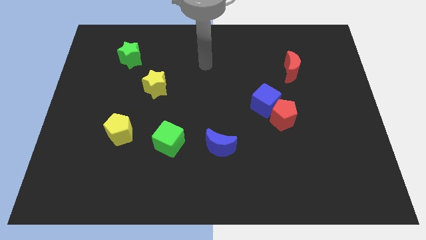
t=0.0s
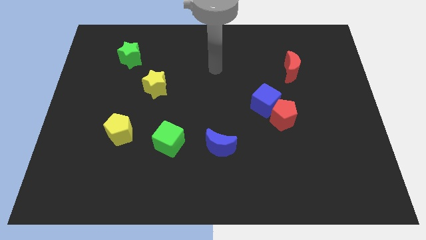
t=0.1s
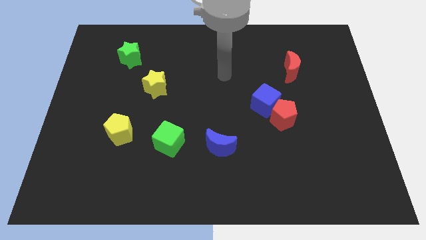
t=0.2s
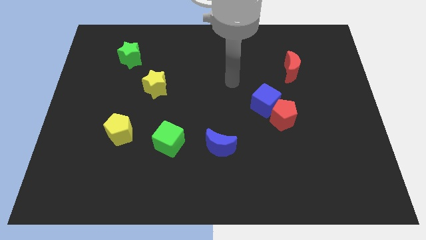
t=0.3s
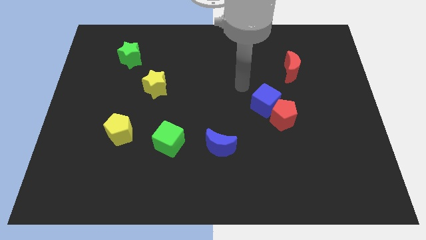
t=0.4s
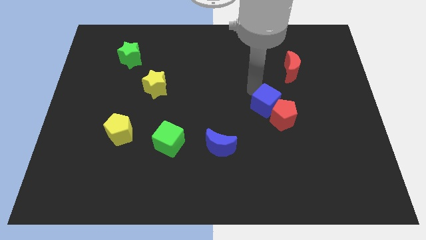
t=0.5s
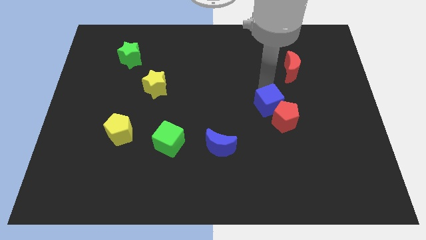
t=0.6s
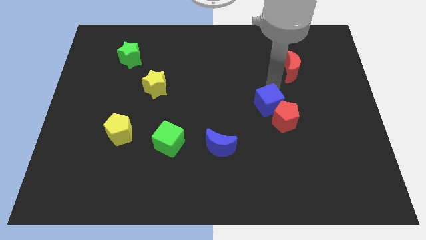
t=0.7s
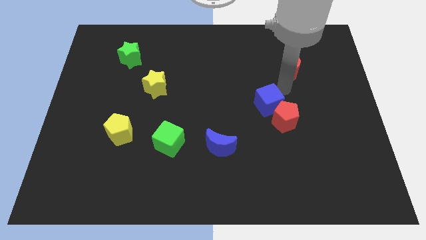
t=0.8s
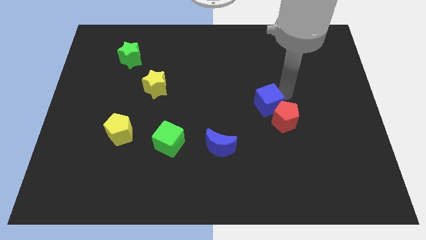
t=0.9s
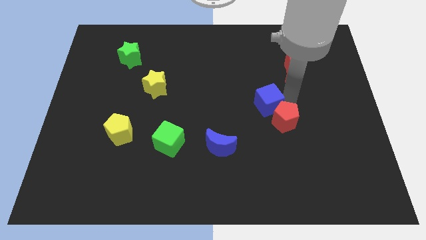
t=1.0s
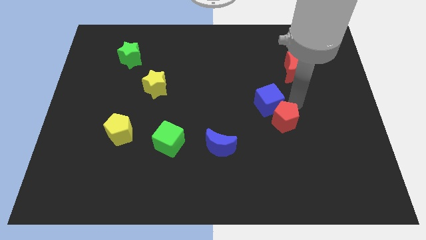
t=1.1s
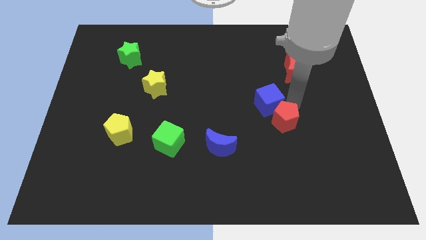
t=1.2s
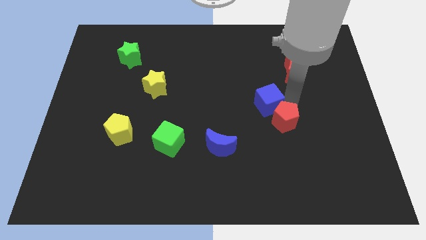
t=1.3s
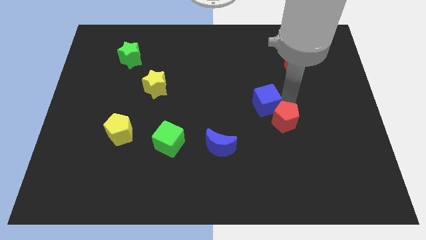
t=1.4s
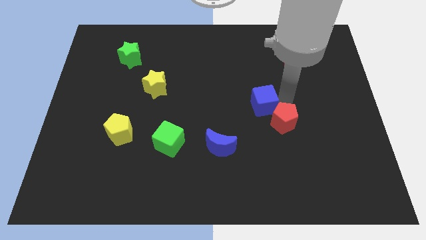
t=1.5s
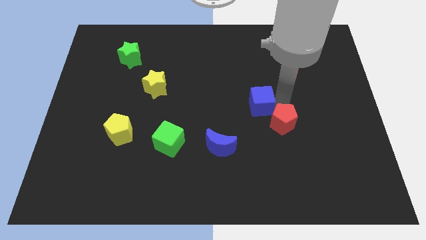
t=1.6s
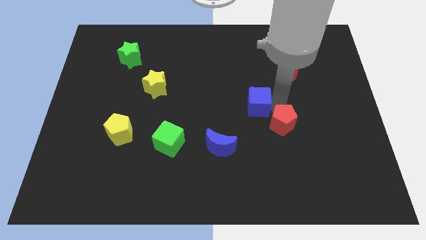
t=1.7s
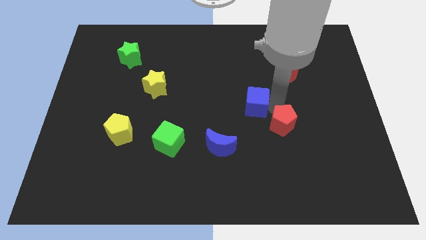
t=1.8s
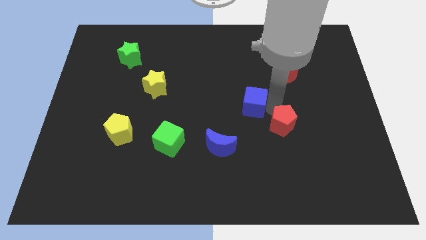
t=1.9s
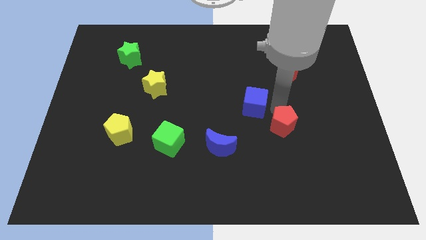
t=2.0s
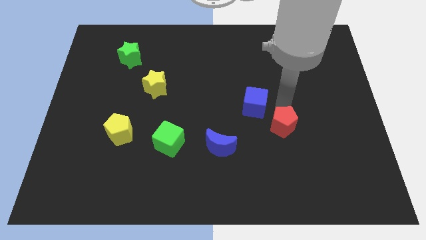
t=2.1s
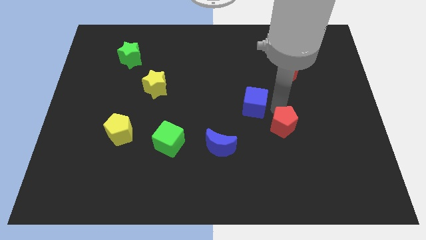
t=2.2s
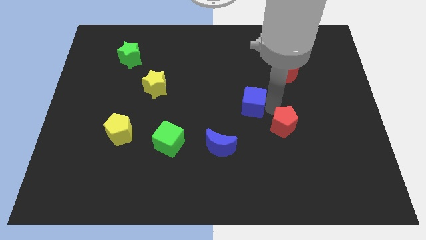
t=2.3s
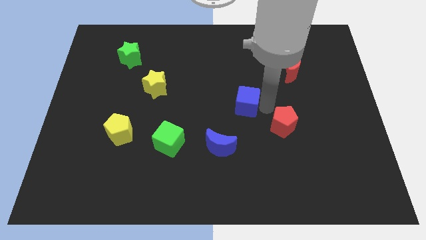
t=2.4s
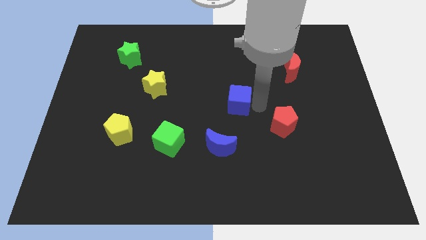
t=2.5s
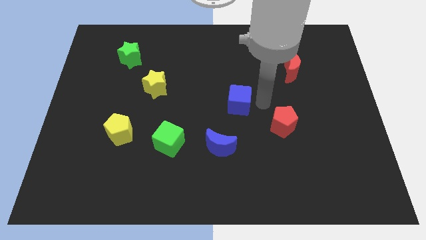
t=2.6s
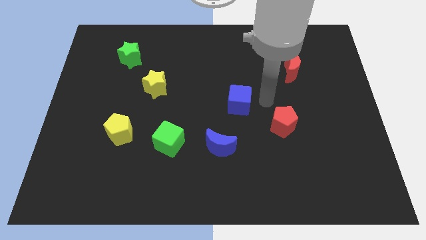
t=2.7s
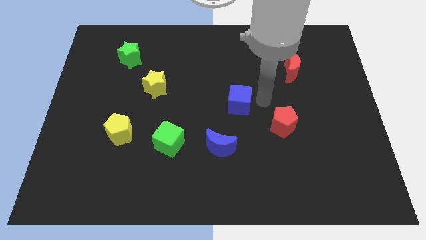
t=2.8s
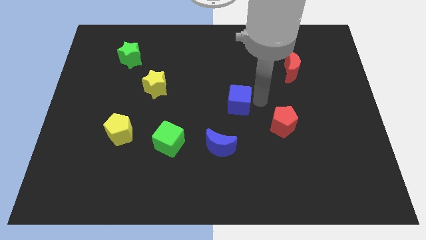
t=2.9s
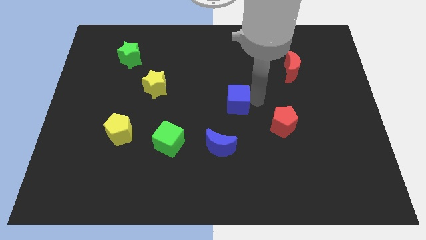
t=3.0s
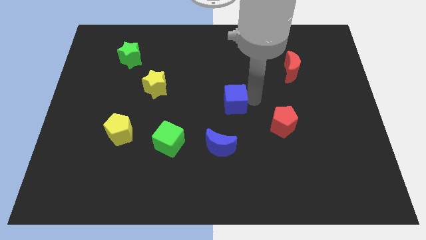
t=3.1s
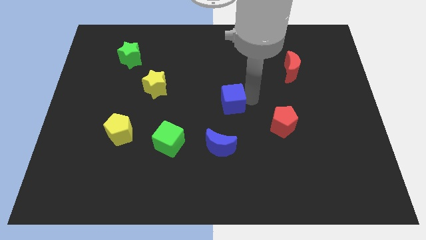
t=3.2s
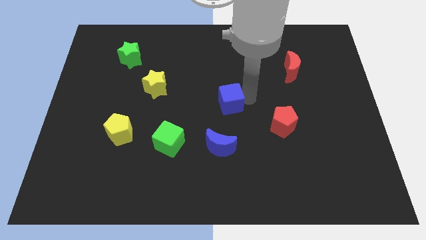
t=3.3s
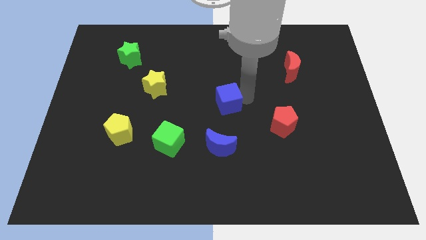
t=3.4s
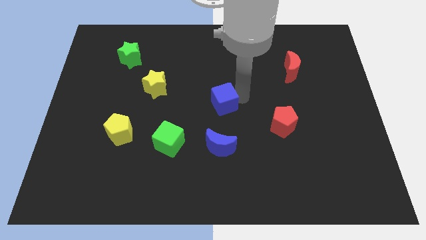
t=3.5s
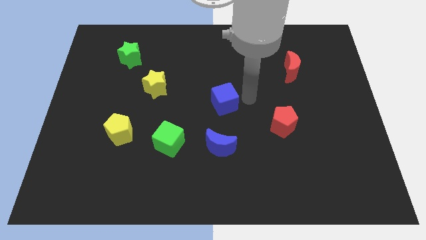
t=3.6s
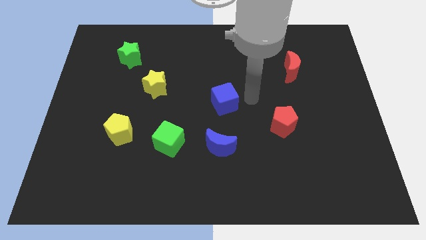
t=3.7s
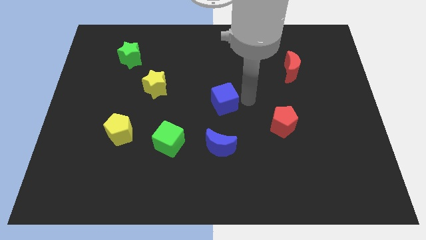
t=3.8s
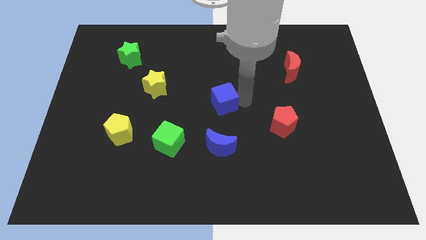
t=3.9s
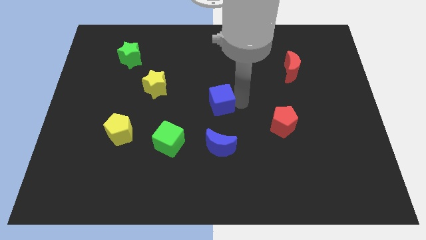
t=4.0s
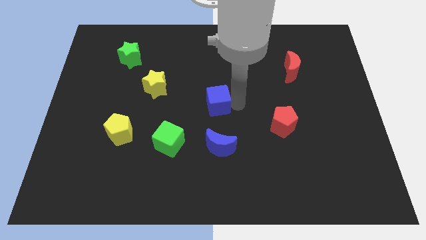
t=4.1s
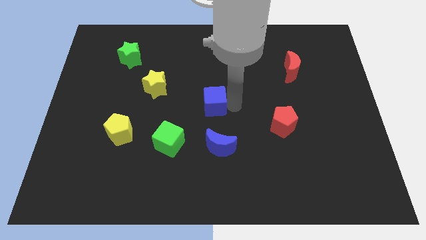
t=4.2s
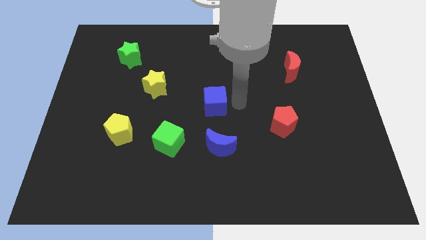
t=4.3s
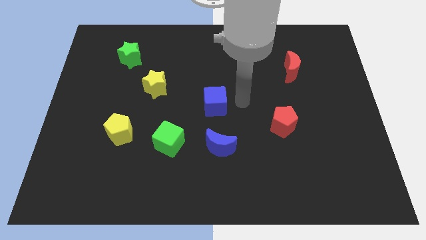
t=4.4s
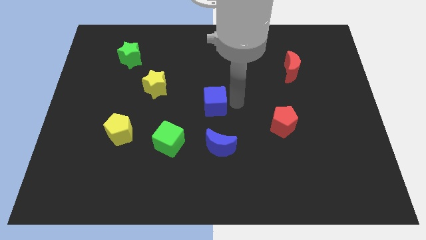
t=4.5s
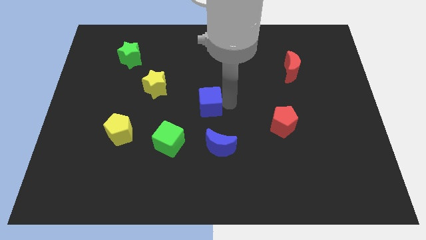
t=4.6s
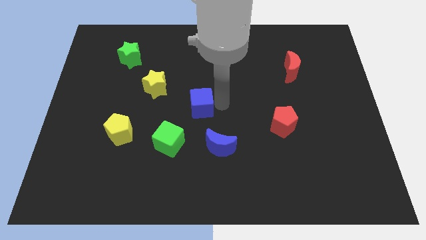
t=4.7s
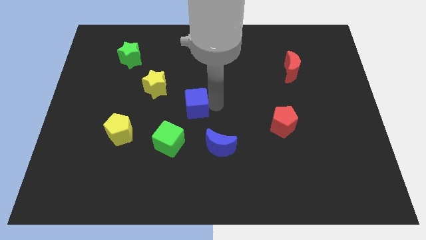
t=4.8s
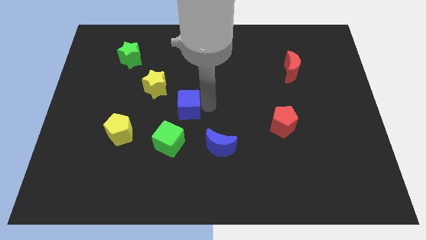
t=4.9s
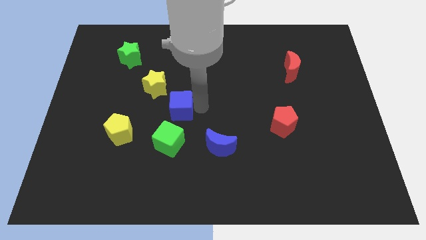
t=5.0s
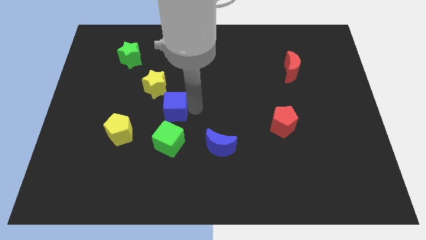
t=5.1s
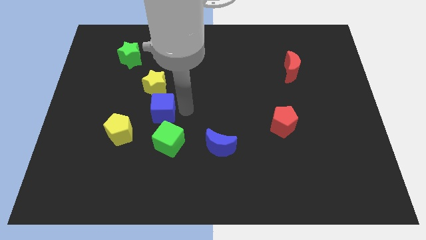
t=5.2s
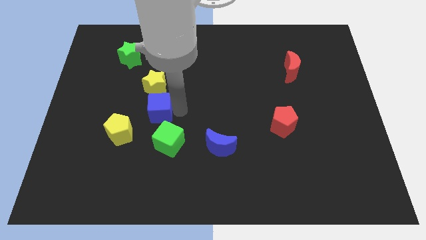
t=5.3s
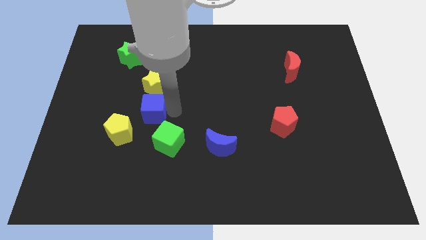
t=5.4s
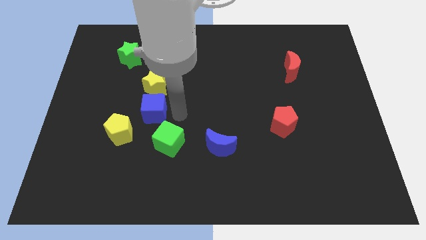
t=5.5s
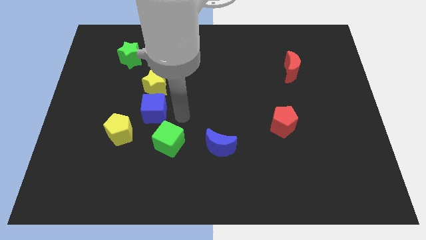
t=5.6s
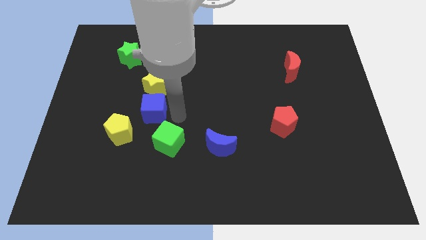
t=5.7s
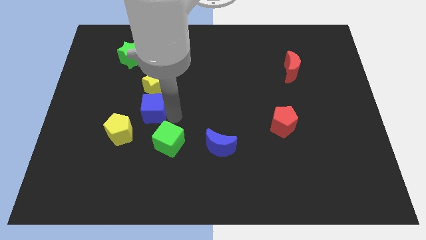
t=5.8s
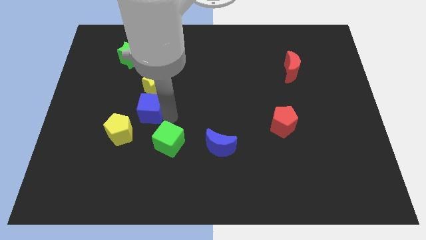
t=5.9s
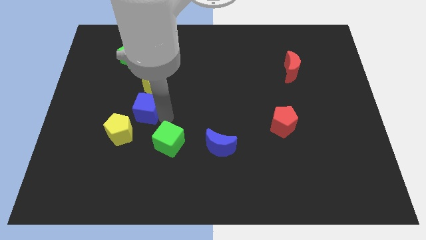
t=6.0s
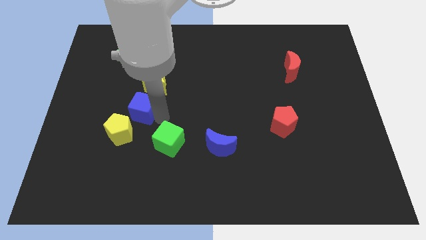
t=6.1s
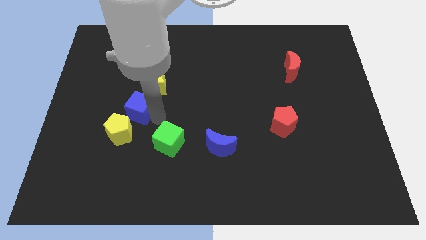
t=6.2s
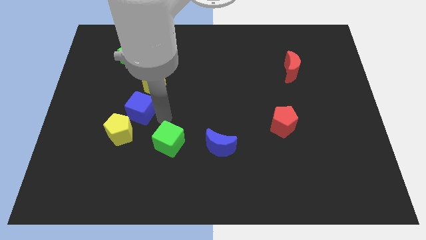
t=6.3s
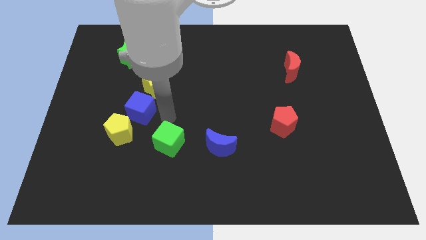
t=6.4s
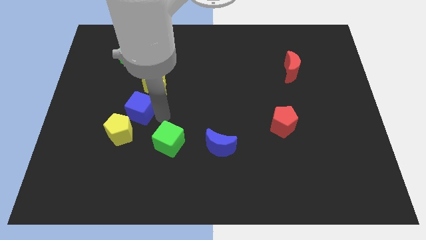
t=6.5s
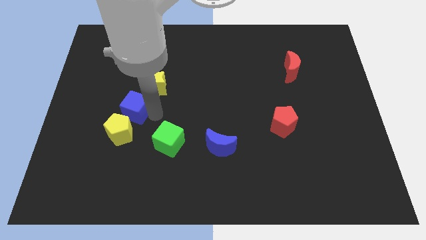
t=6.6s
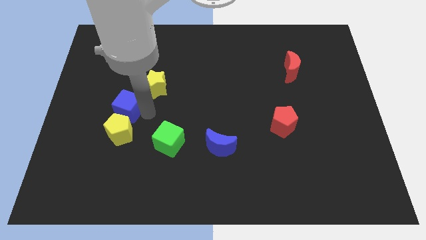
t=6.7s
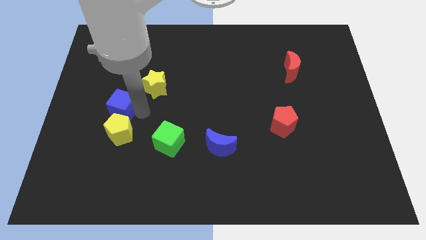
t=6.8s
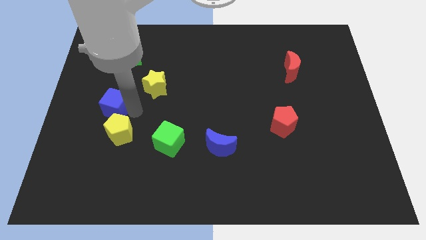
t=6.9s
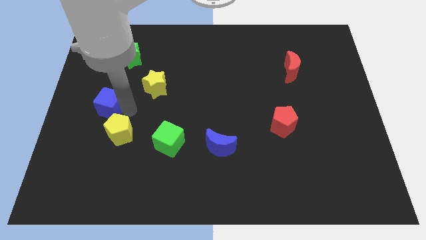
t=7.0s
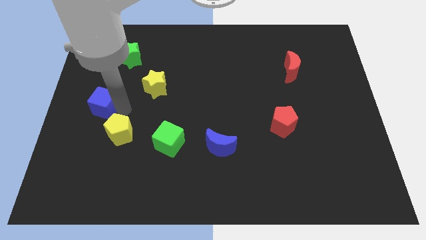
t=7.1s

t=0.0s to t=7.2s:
slide the blue cube to the left side of the board

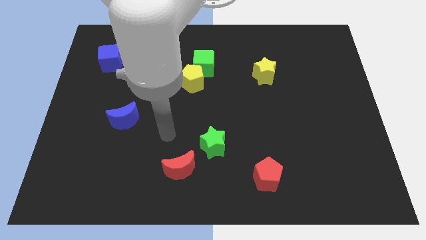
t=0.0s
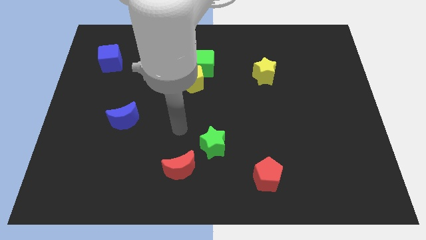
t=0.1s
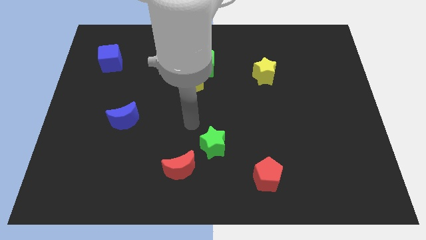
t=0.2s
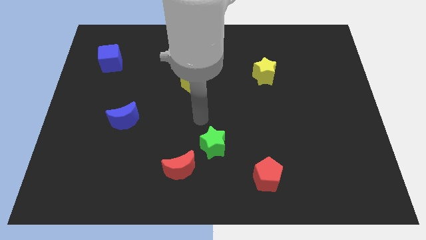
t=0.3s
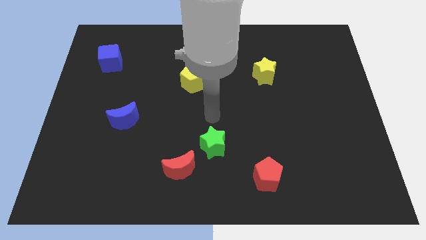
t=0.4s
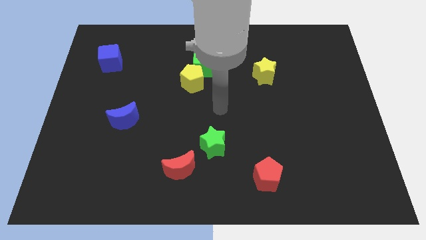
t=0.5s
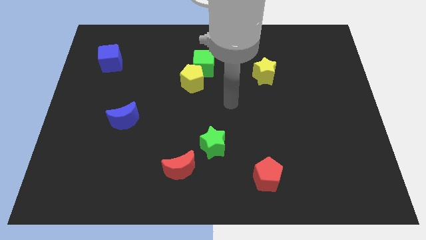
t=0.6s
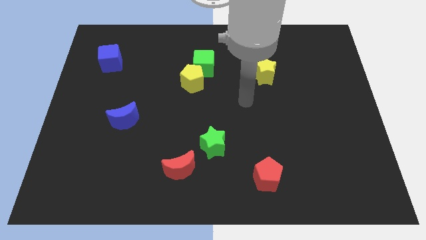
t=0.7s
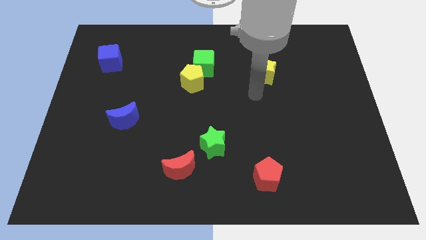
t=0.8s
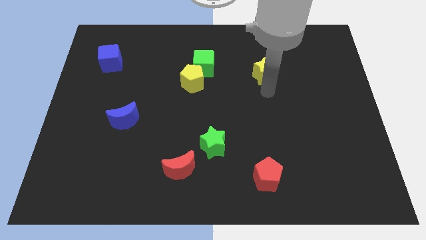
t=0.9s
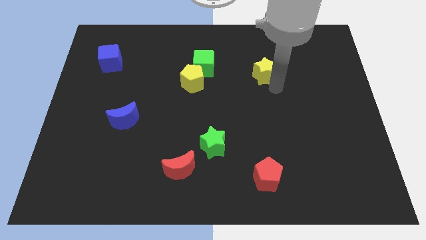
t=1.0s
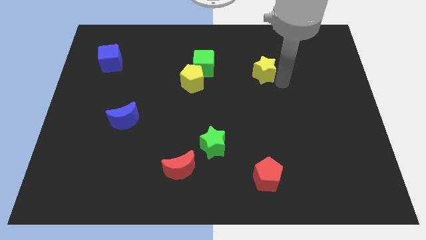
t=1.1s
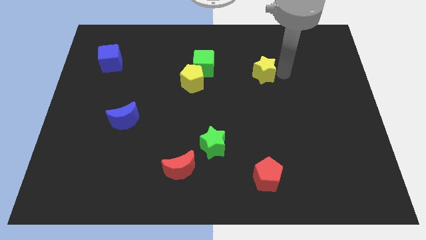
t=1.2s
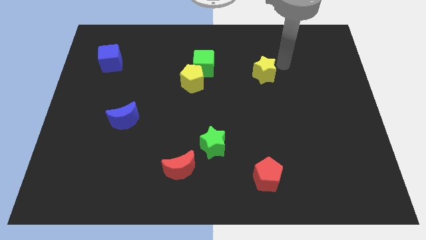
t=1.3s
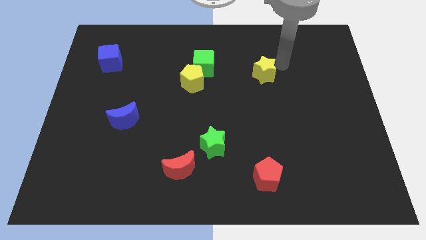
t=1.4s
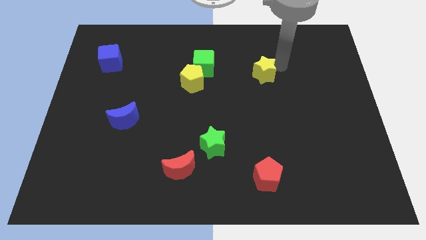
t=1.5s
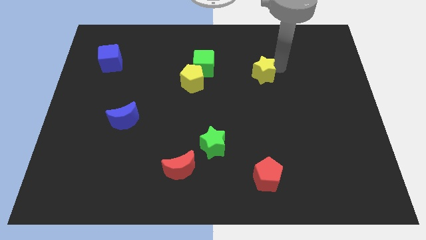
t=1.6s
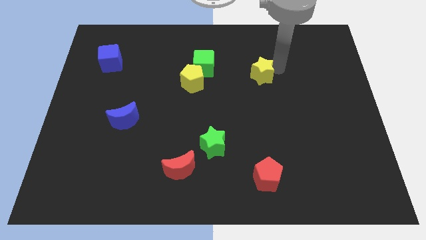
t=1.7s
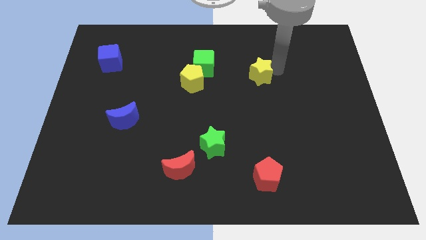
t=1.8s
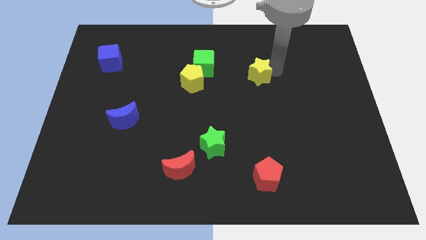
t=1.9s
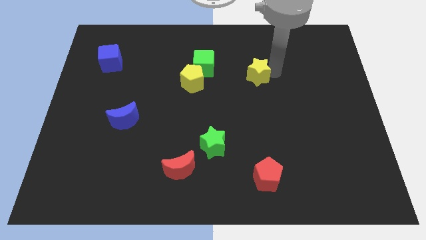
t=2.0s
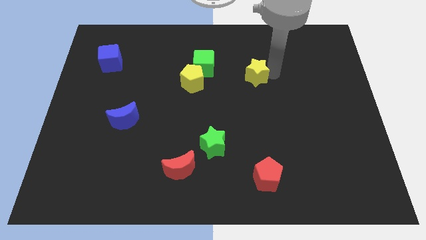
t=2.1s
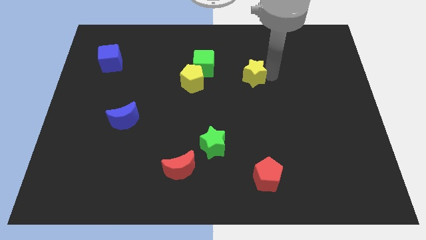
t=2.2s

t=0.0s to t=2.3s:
push the yellow star to the center of the board
